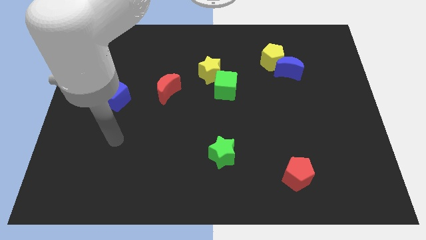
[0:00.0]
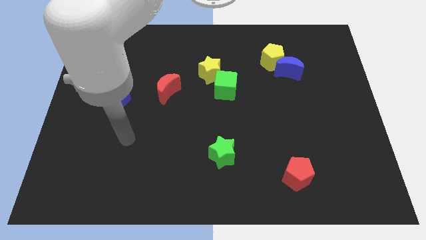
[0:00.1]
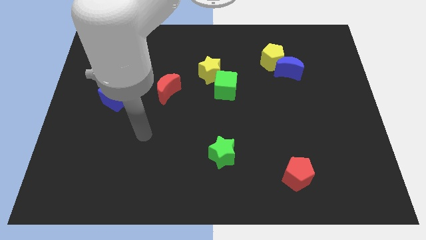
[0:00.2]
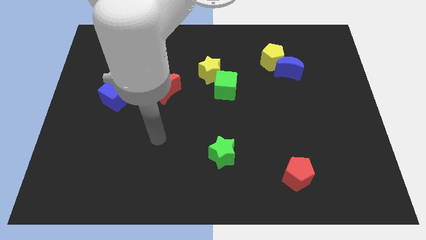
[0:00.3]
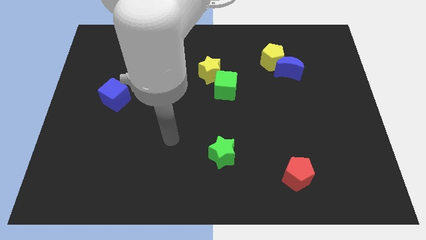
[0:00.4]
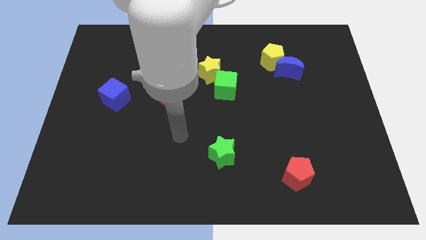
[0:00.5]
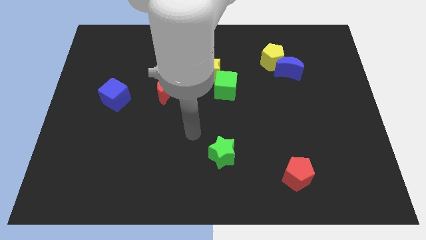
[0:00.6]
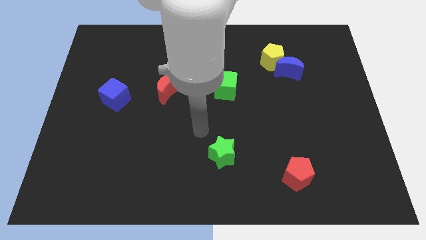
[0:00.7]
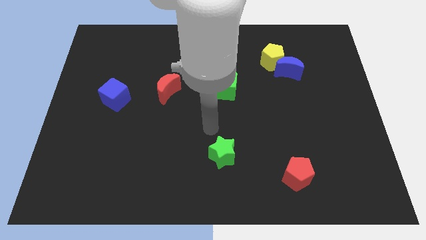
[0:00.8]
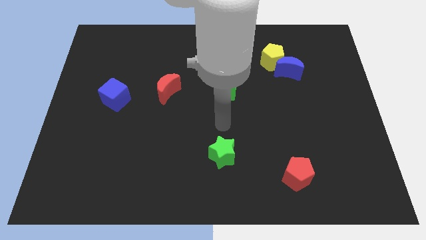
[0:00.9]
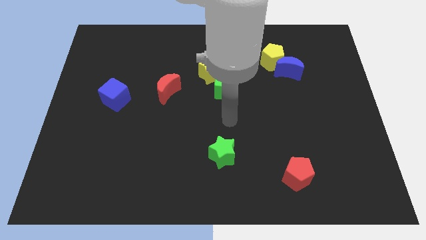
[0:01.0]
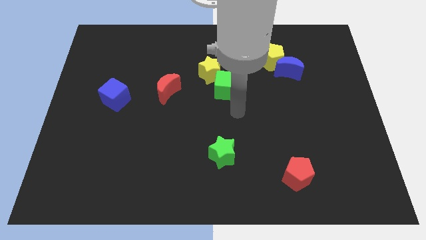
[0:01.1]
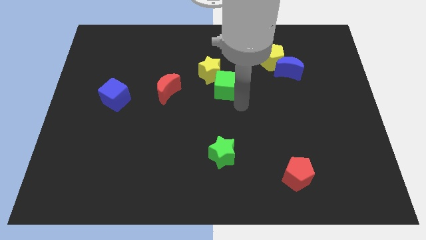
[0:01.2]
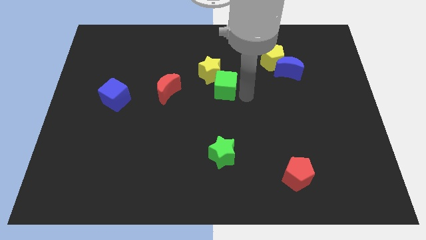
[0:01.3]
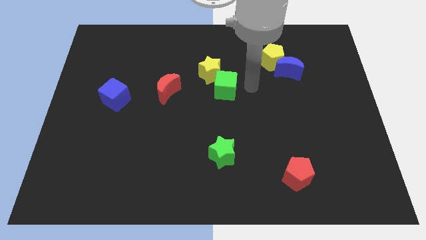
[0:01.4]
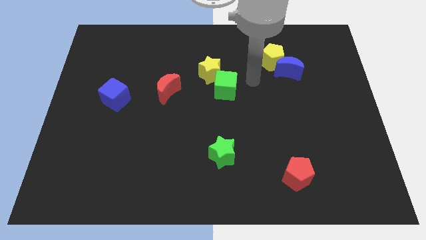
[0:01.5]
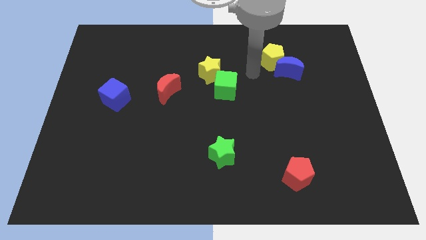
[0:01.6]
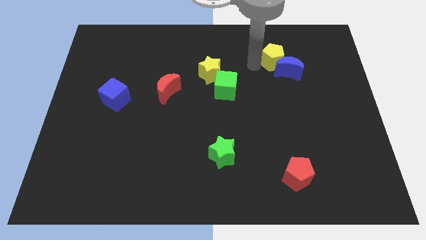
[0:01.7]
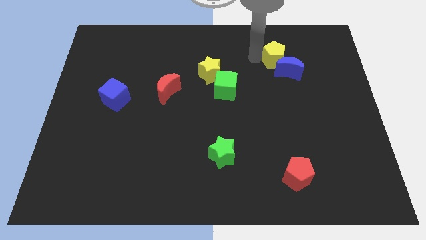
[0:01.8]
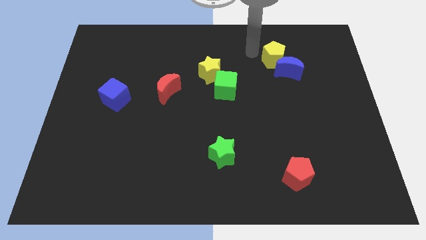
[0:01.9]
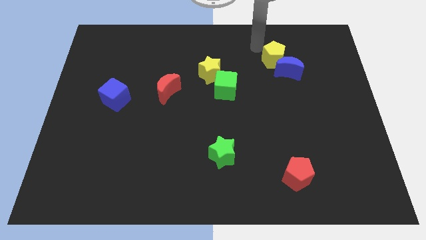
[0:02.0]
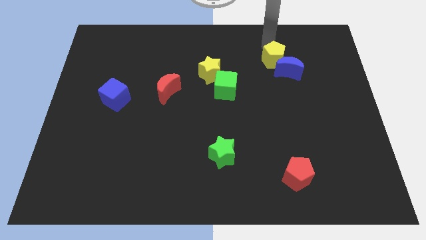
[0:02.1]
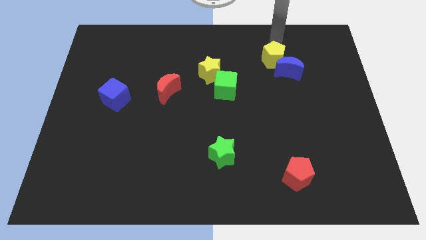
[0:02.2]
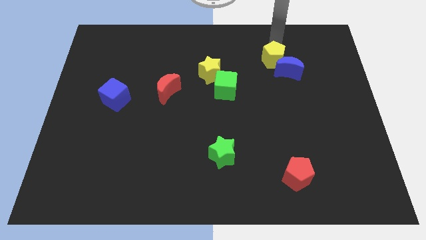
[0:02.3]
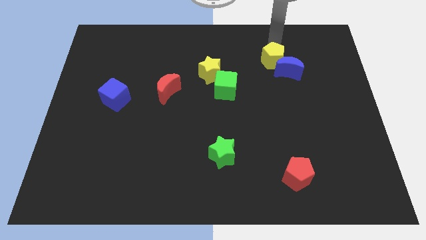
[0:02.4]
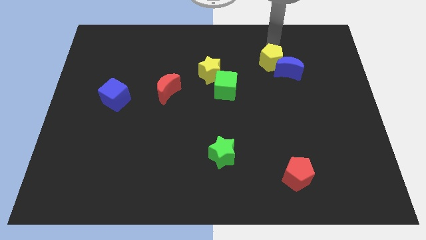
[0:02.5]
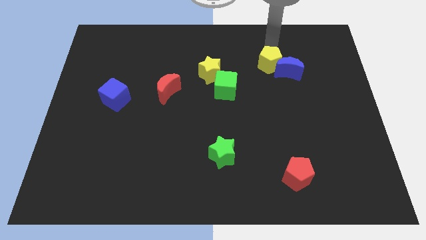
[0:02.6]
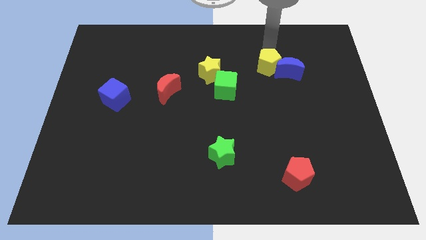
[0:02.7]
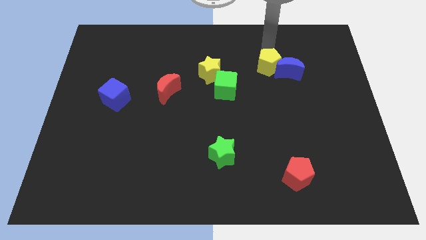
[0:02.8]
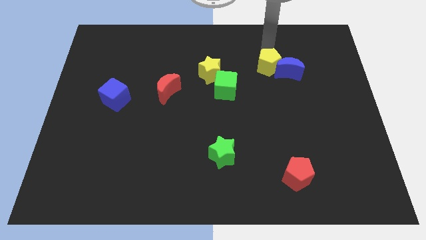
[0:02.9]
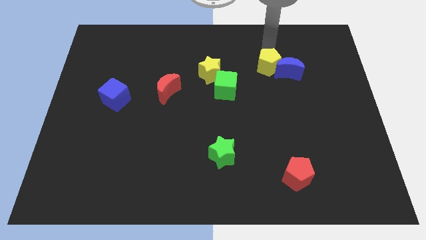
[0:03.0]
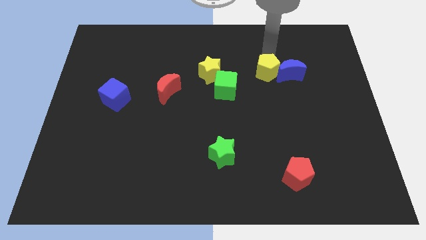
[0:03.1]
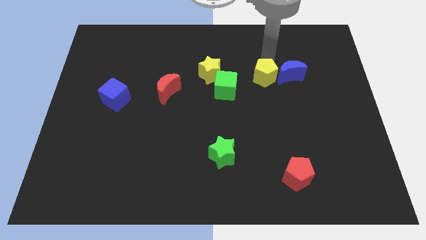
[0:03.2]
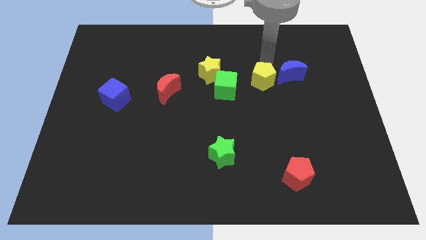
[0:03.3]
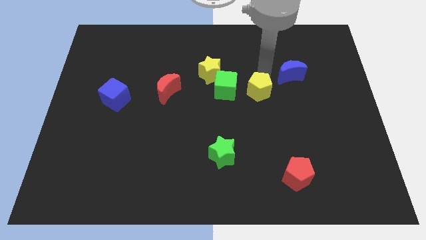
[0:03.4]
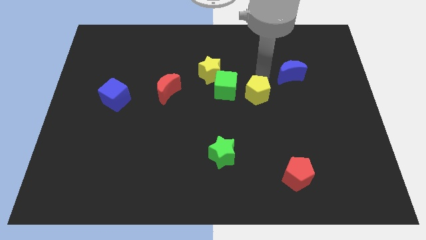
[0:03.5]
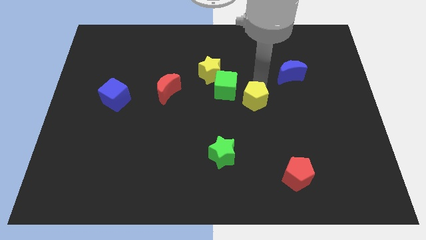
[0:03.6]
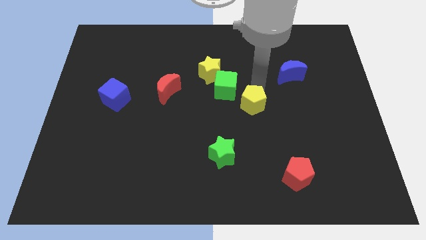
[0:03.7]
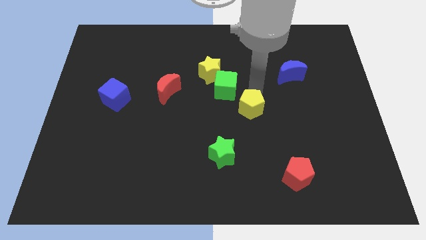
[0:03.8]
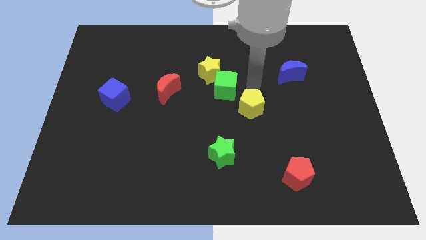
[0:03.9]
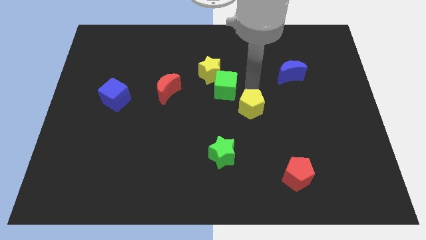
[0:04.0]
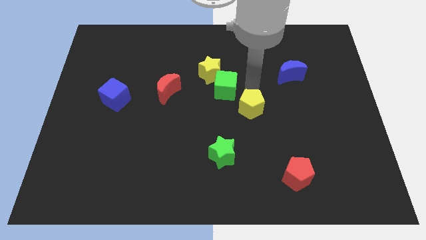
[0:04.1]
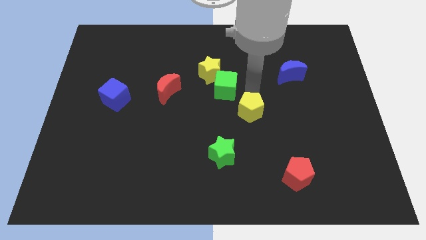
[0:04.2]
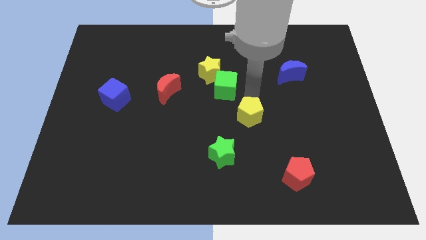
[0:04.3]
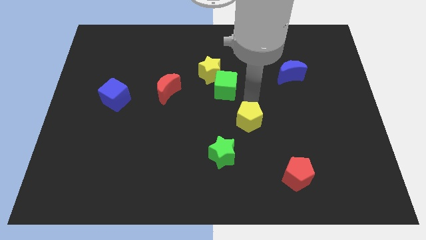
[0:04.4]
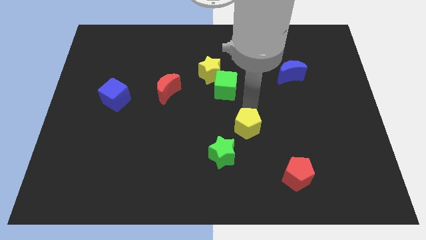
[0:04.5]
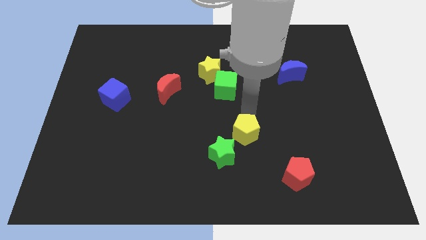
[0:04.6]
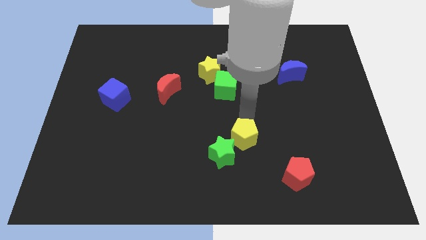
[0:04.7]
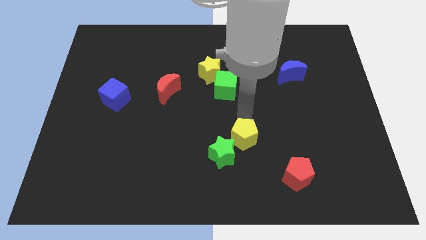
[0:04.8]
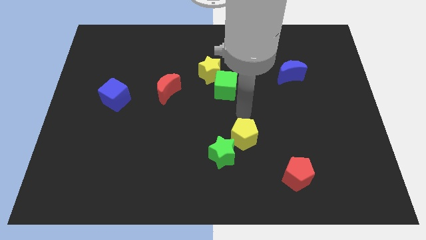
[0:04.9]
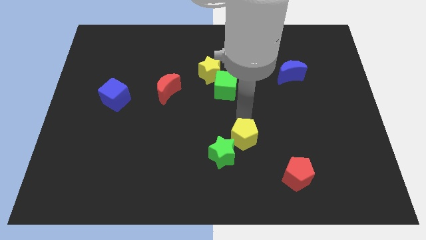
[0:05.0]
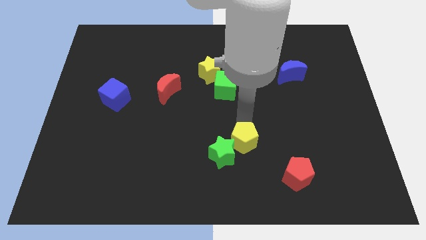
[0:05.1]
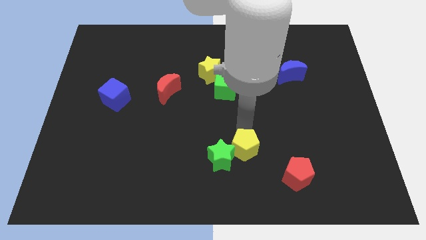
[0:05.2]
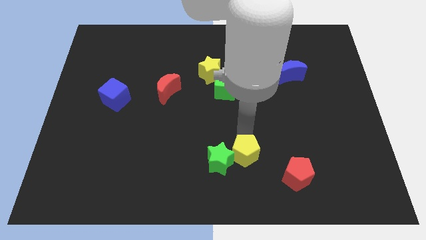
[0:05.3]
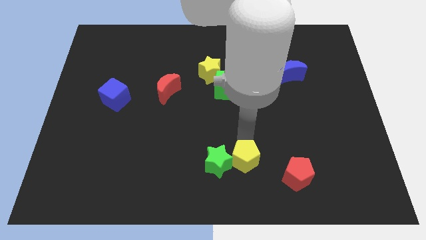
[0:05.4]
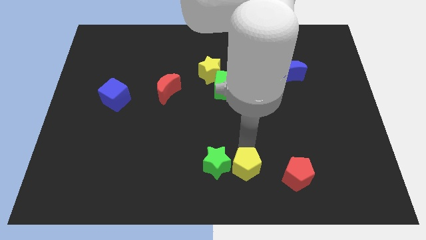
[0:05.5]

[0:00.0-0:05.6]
slide the yellow pentagon to the bottom side

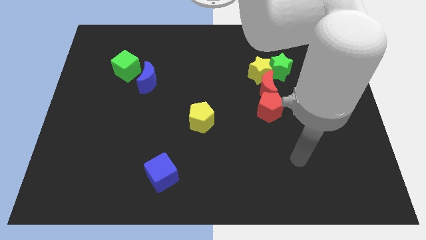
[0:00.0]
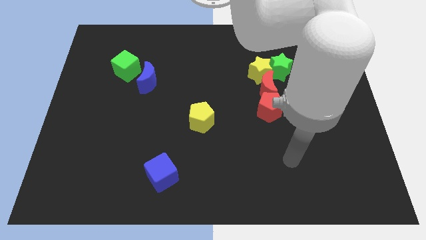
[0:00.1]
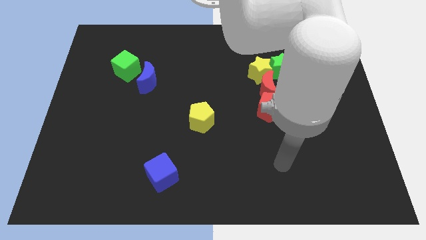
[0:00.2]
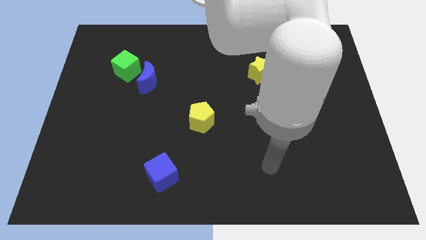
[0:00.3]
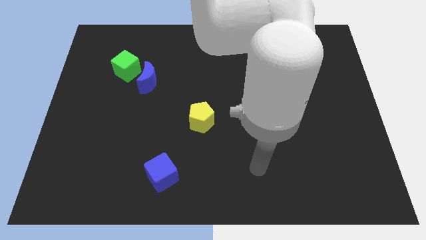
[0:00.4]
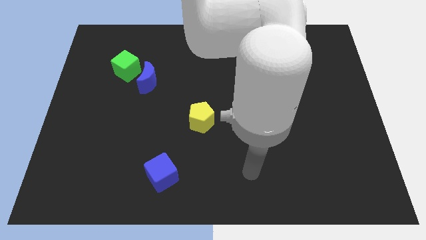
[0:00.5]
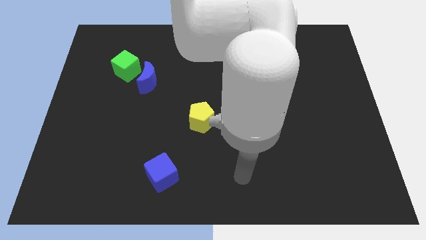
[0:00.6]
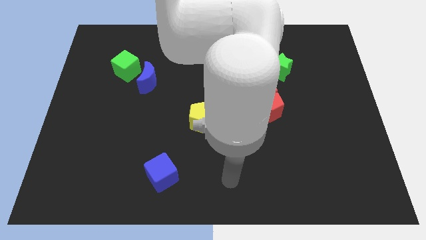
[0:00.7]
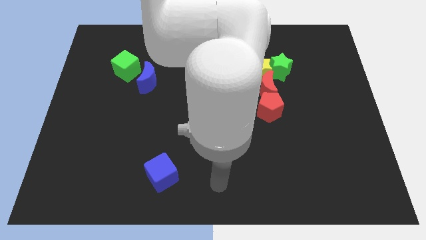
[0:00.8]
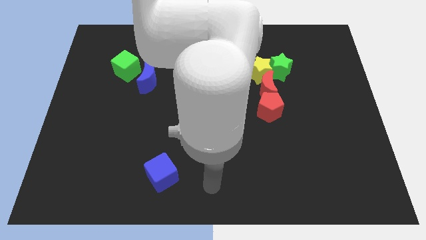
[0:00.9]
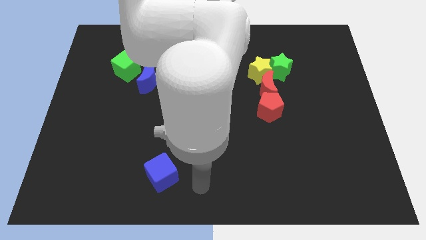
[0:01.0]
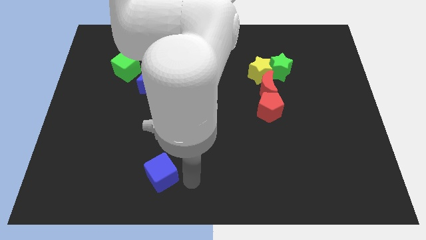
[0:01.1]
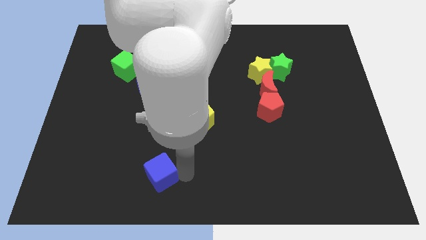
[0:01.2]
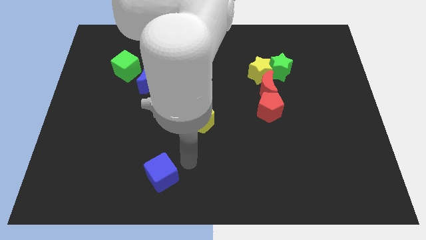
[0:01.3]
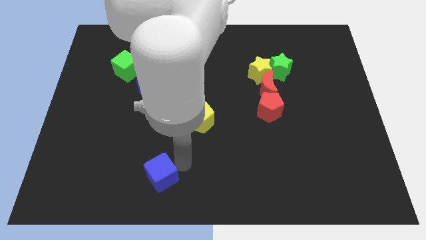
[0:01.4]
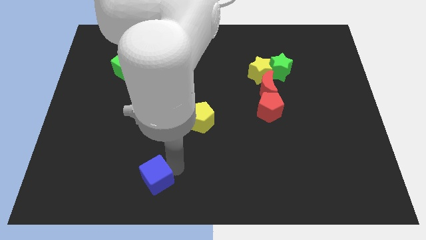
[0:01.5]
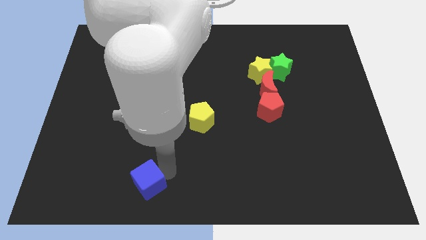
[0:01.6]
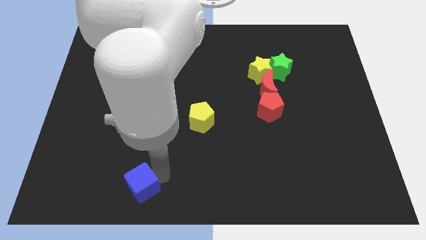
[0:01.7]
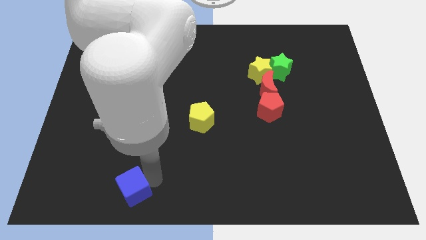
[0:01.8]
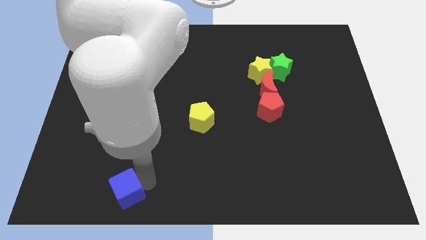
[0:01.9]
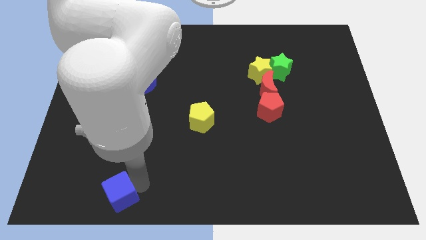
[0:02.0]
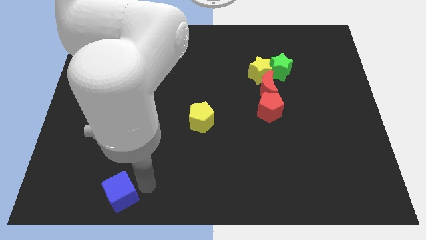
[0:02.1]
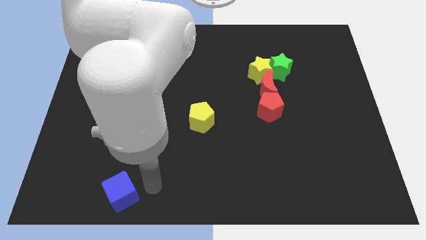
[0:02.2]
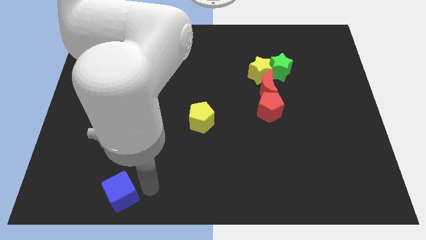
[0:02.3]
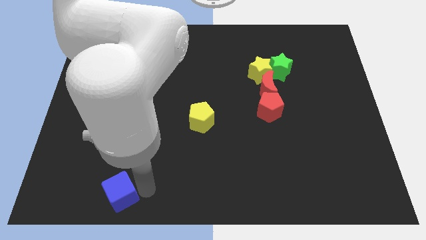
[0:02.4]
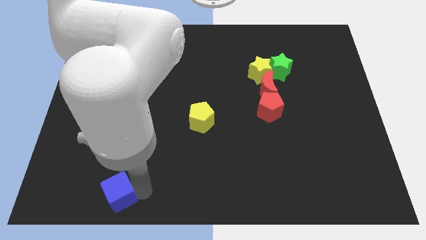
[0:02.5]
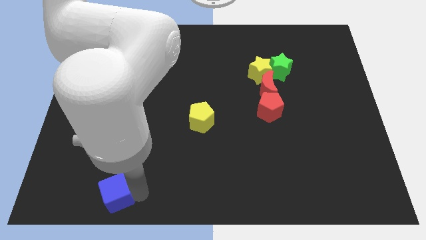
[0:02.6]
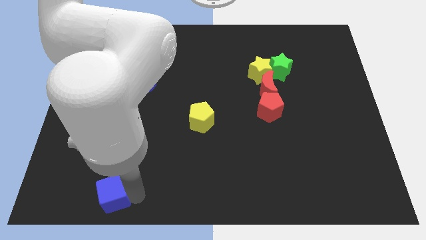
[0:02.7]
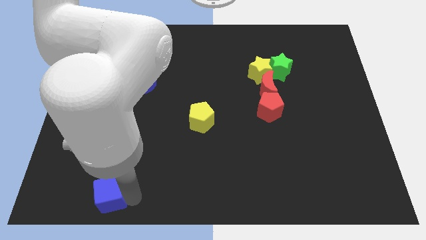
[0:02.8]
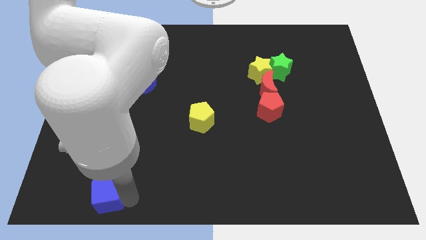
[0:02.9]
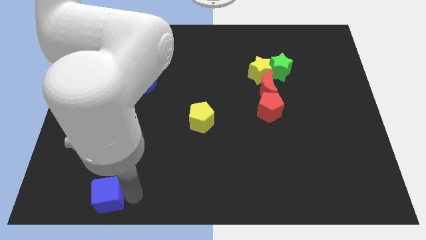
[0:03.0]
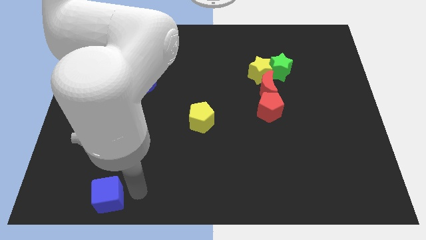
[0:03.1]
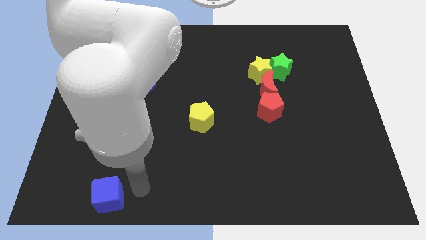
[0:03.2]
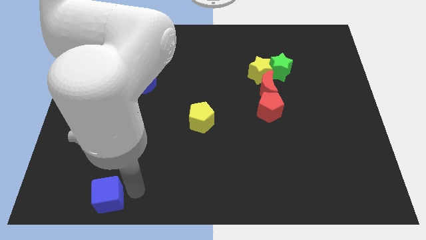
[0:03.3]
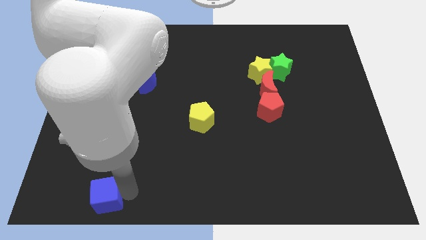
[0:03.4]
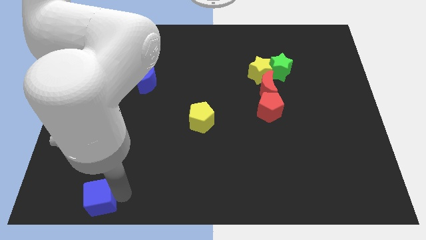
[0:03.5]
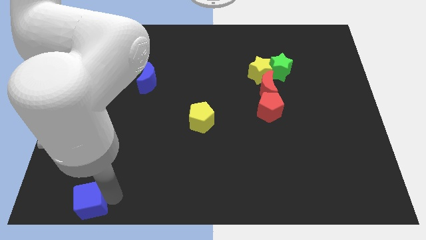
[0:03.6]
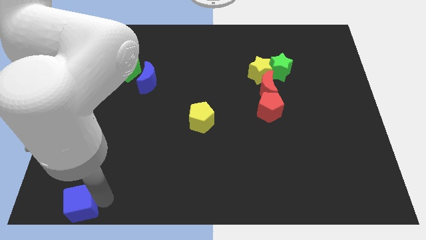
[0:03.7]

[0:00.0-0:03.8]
push the blue cube to the bottom left
